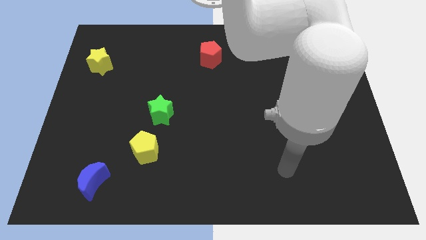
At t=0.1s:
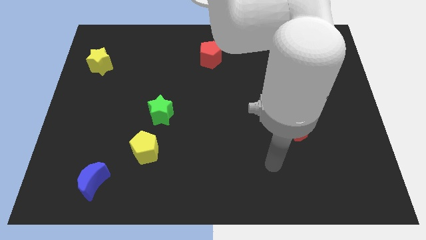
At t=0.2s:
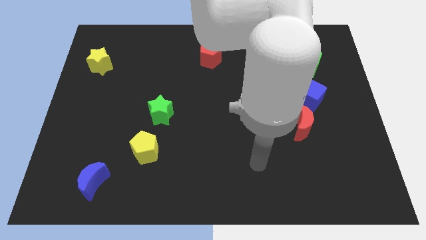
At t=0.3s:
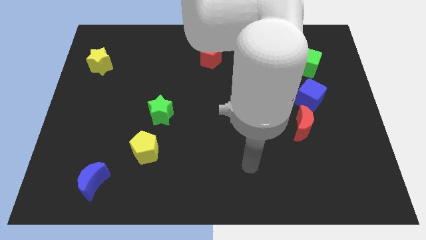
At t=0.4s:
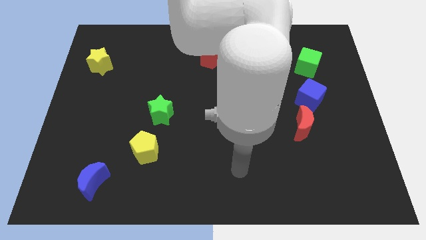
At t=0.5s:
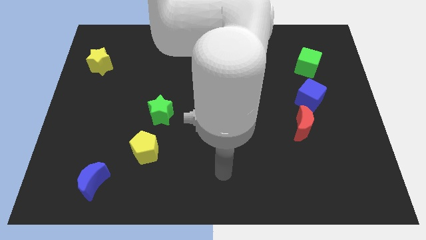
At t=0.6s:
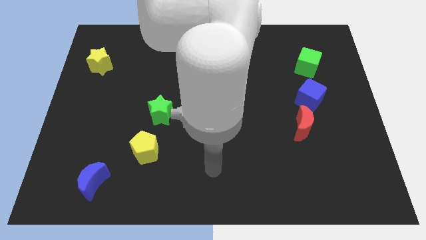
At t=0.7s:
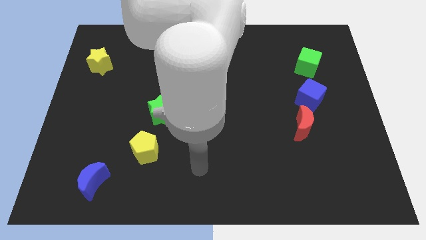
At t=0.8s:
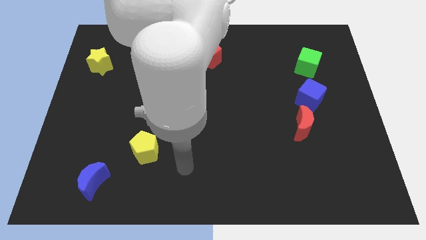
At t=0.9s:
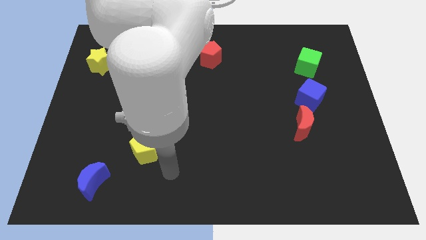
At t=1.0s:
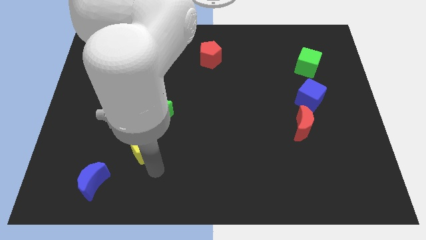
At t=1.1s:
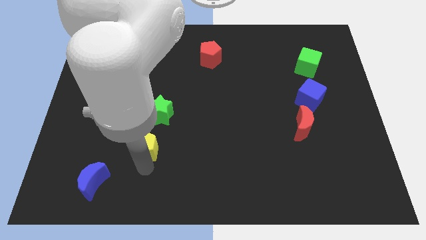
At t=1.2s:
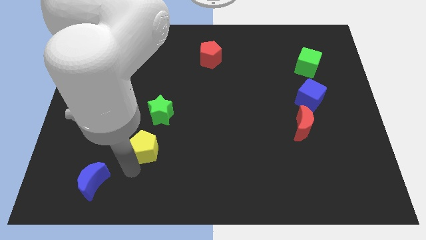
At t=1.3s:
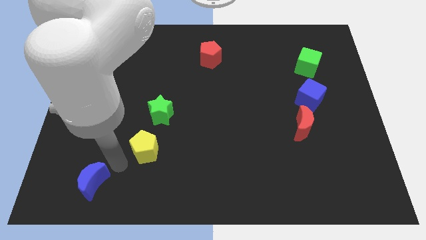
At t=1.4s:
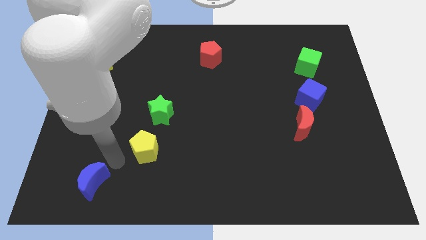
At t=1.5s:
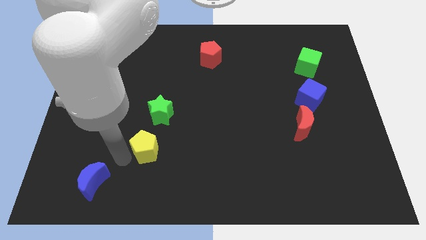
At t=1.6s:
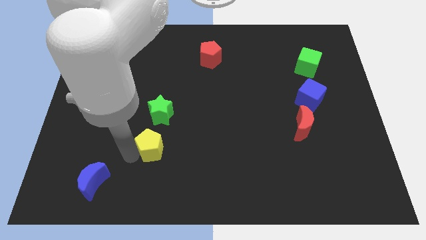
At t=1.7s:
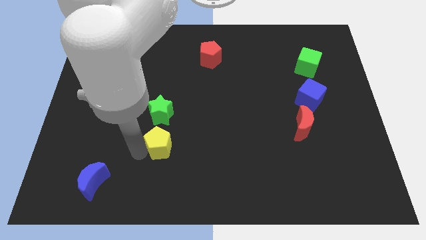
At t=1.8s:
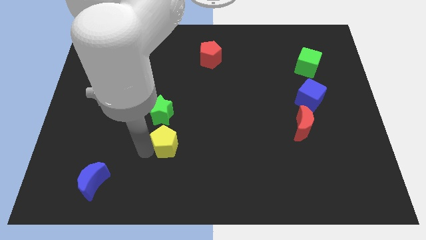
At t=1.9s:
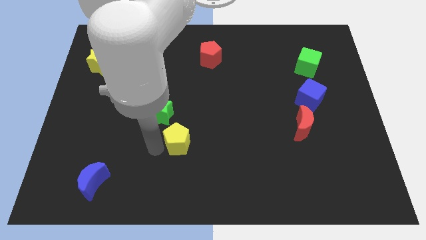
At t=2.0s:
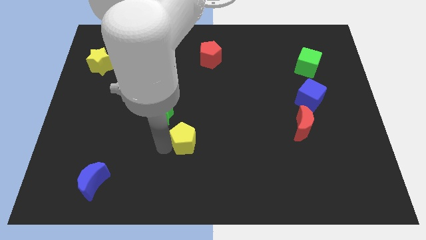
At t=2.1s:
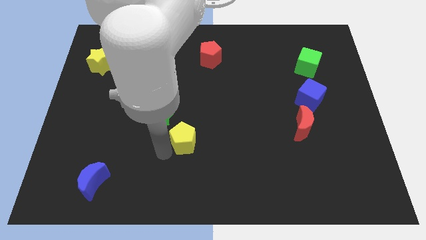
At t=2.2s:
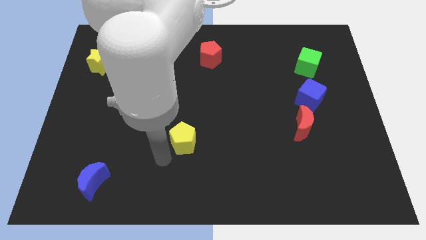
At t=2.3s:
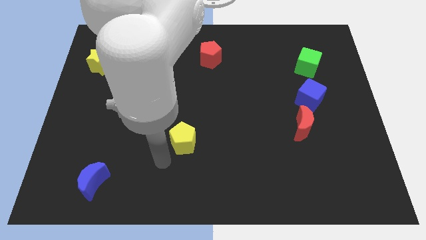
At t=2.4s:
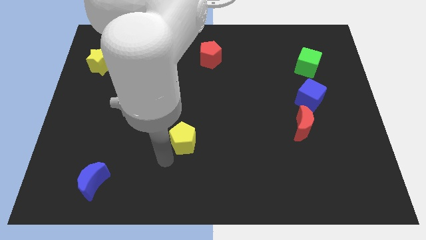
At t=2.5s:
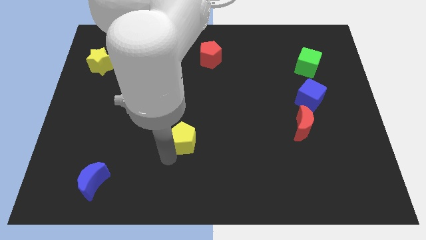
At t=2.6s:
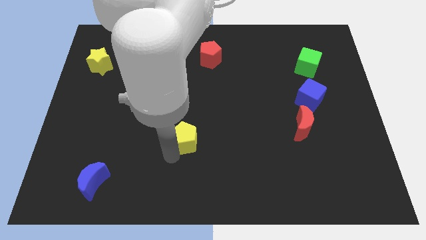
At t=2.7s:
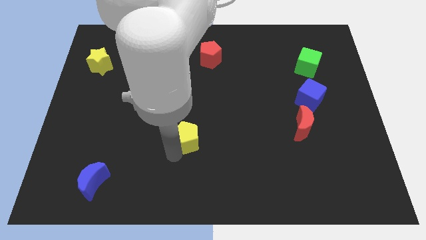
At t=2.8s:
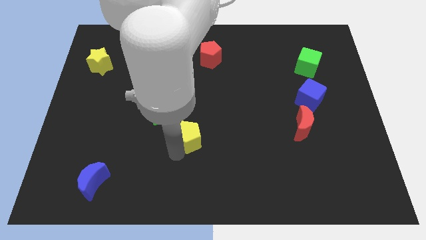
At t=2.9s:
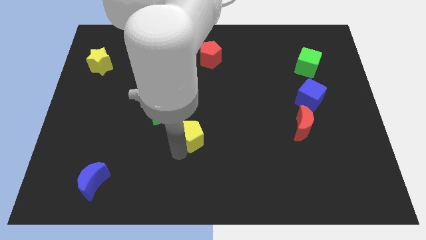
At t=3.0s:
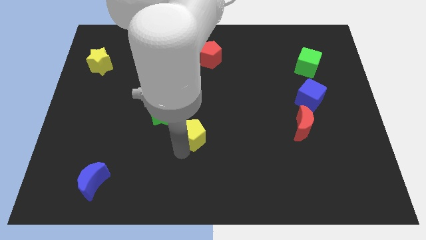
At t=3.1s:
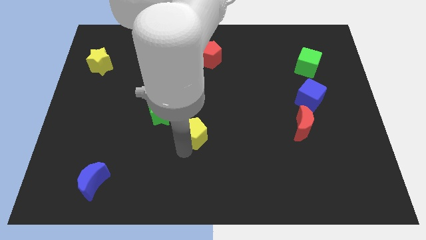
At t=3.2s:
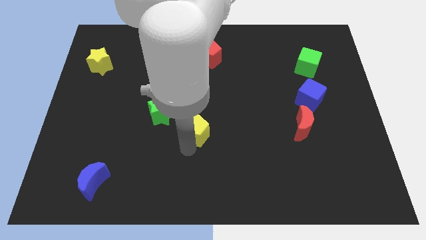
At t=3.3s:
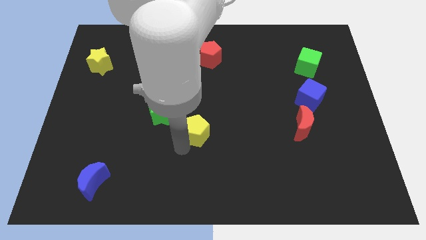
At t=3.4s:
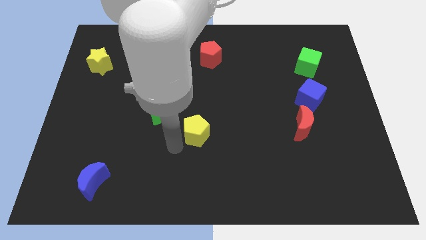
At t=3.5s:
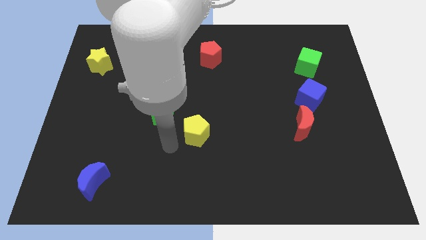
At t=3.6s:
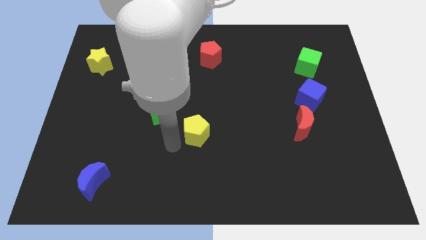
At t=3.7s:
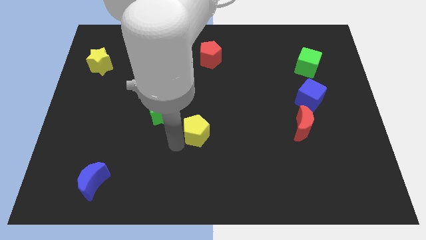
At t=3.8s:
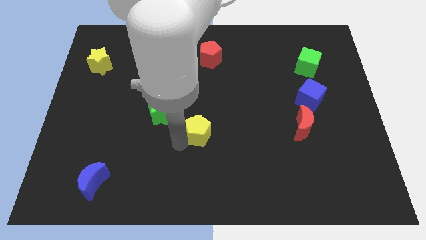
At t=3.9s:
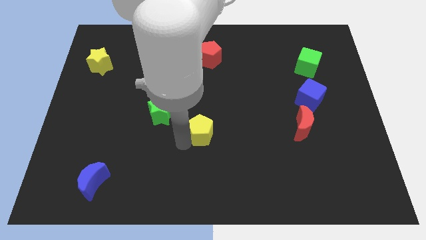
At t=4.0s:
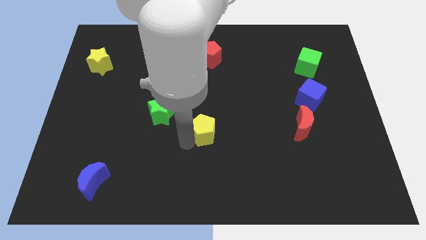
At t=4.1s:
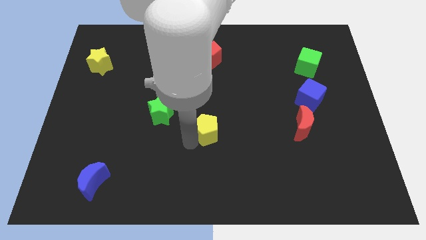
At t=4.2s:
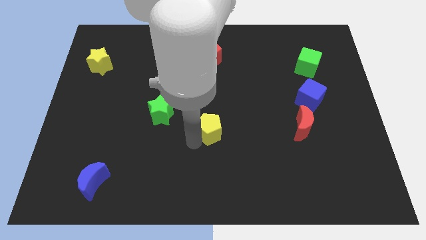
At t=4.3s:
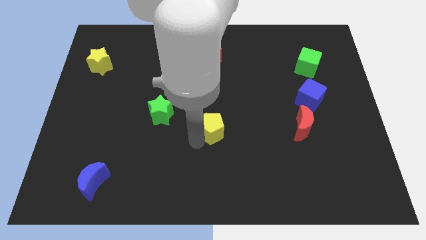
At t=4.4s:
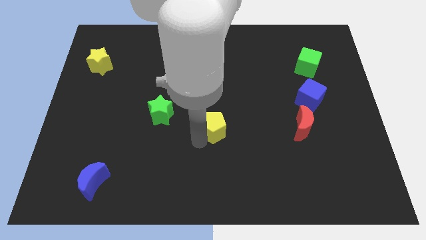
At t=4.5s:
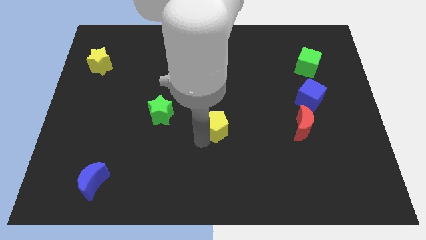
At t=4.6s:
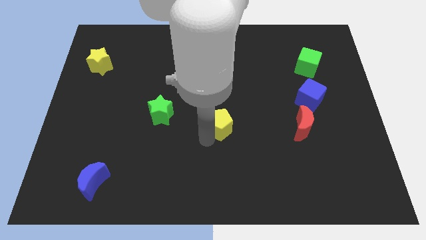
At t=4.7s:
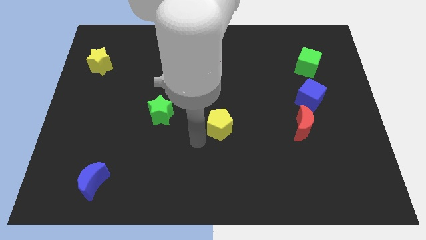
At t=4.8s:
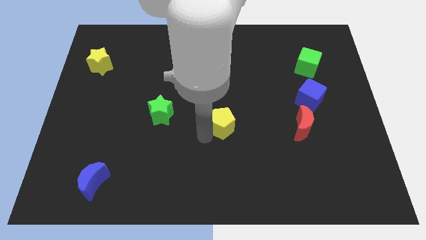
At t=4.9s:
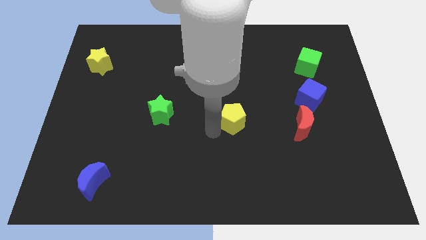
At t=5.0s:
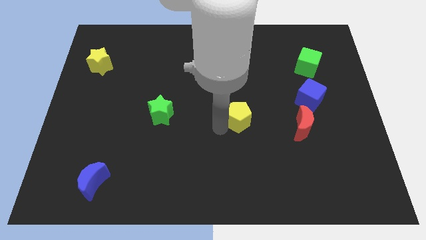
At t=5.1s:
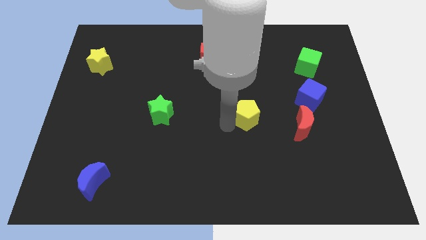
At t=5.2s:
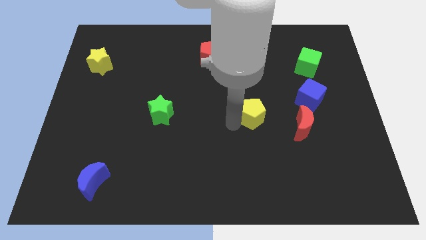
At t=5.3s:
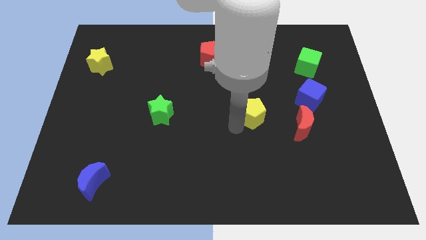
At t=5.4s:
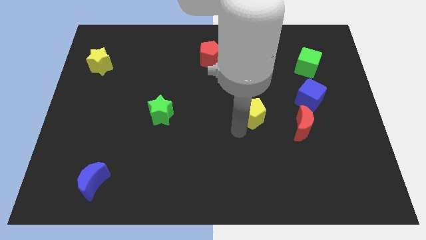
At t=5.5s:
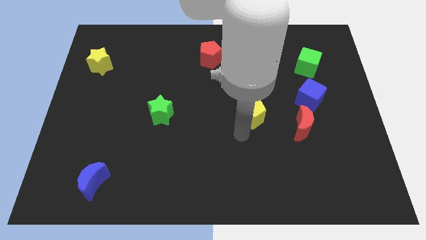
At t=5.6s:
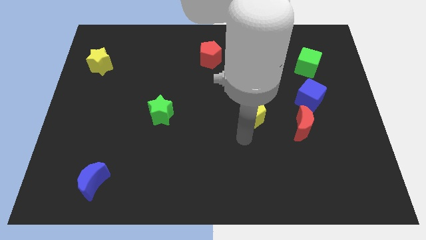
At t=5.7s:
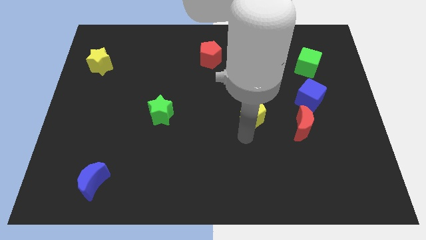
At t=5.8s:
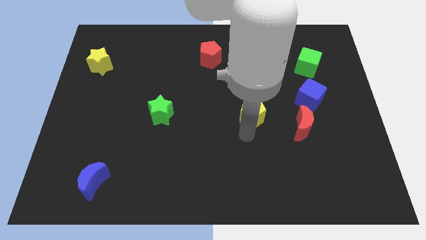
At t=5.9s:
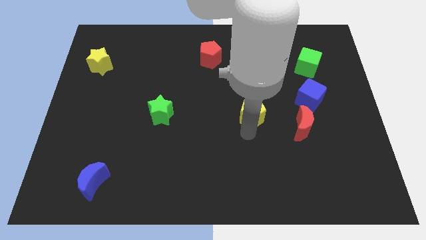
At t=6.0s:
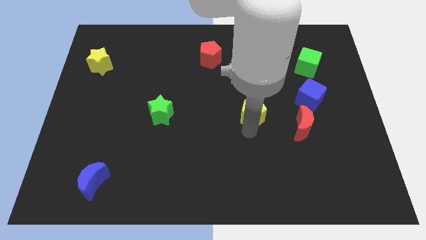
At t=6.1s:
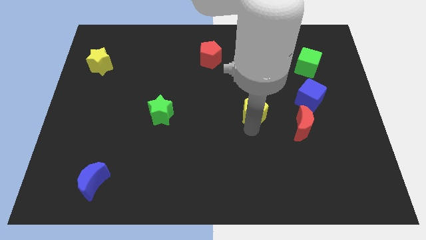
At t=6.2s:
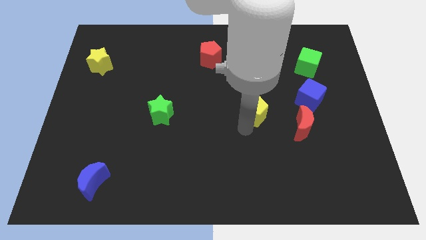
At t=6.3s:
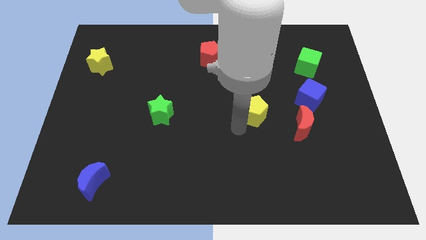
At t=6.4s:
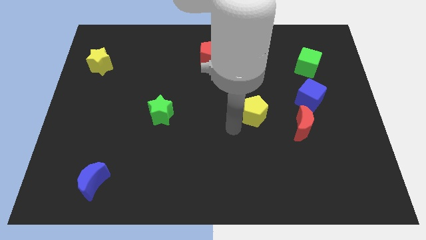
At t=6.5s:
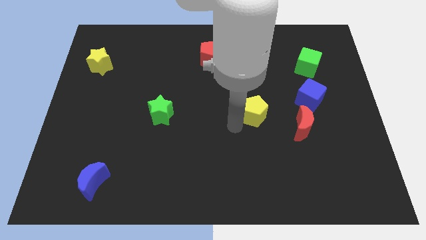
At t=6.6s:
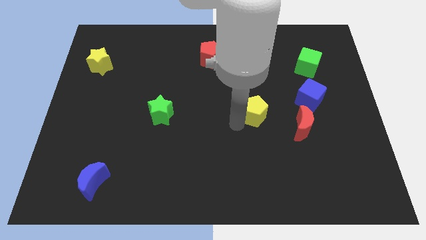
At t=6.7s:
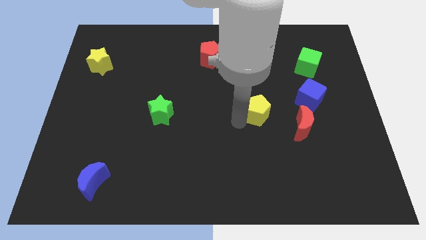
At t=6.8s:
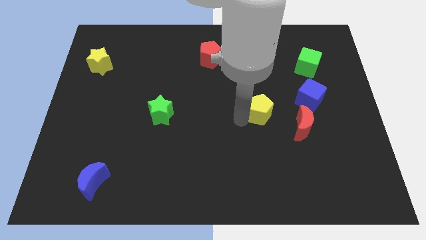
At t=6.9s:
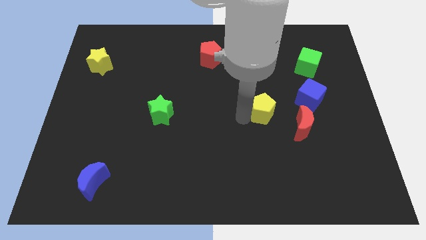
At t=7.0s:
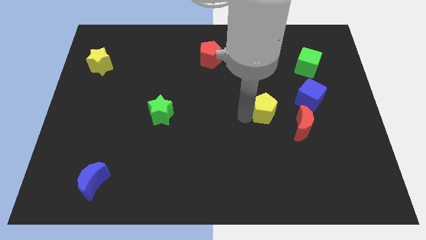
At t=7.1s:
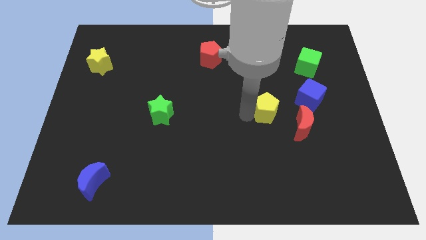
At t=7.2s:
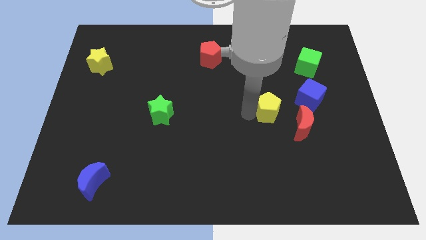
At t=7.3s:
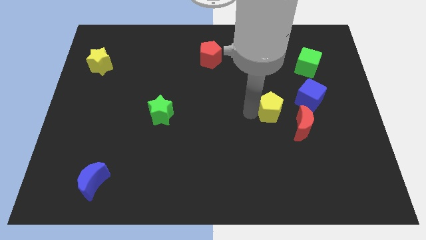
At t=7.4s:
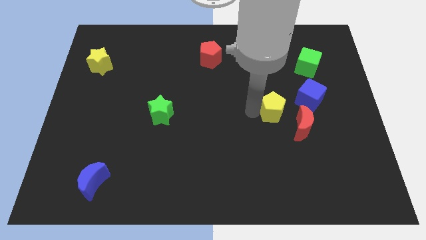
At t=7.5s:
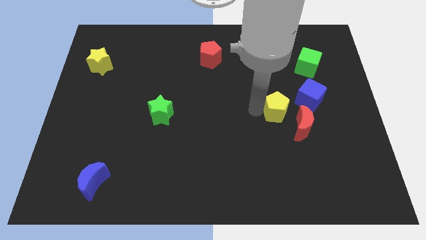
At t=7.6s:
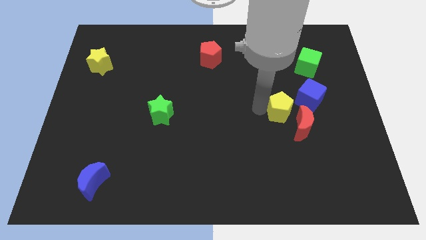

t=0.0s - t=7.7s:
put the yellow pentagon to the top side of the red moon

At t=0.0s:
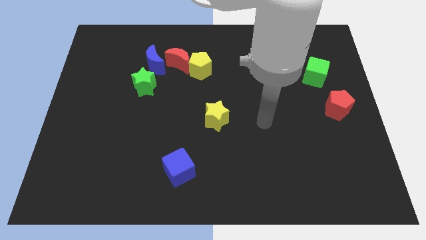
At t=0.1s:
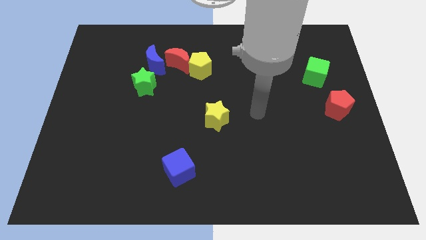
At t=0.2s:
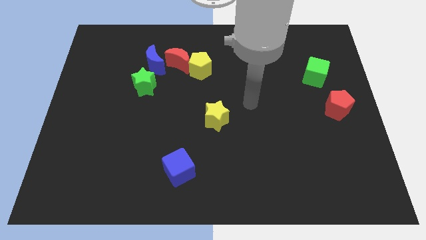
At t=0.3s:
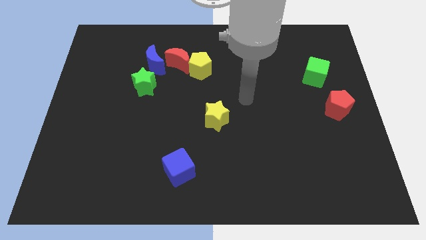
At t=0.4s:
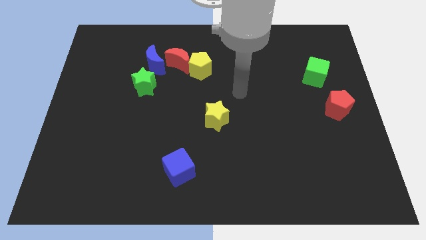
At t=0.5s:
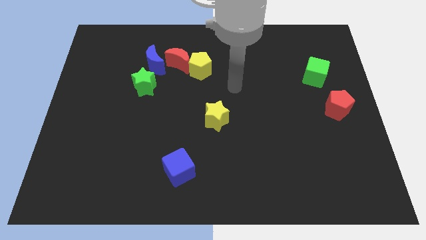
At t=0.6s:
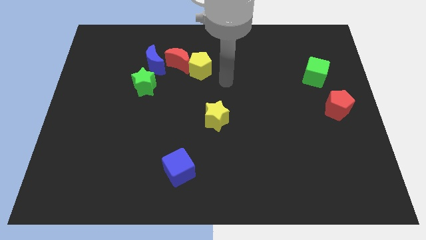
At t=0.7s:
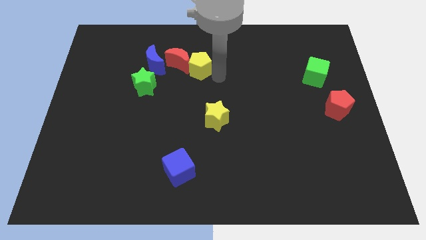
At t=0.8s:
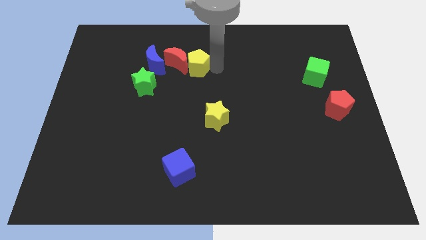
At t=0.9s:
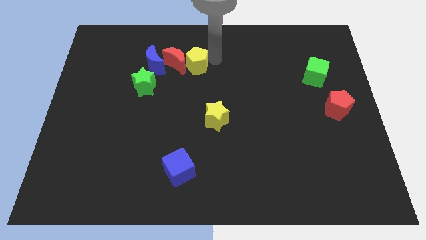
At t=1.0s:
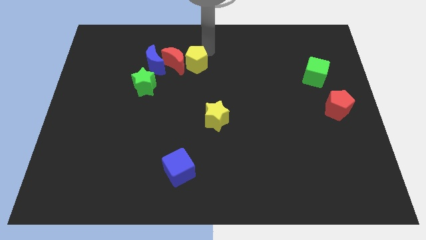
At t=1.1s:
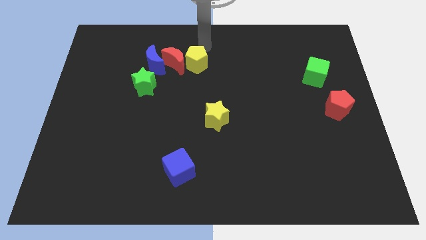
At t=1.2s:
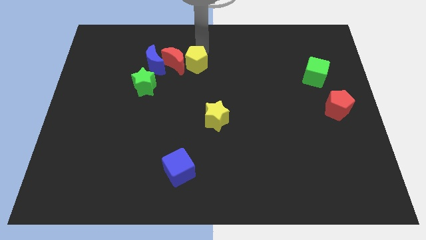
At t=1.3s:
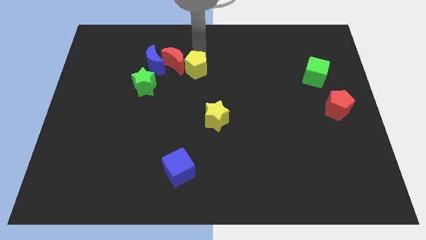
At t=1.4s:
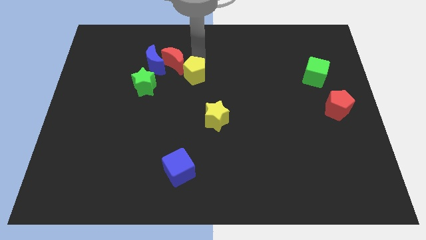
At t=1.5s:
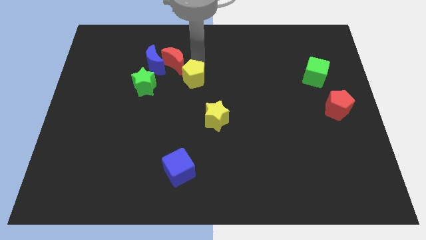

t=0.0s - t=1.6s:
move the yellow pentagon to the bottom of the red moon
